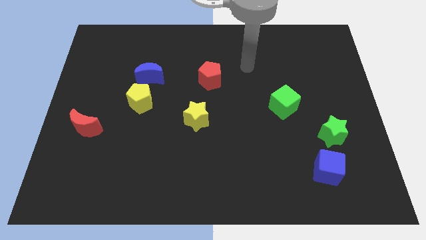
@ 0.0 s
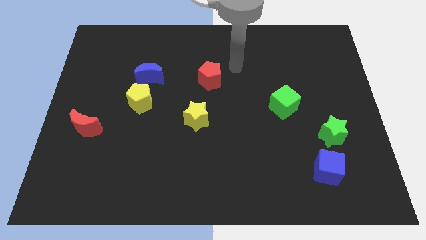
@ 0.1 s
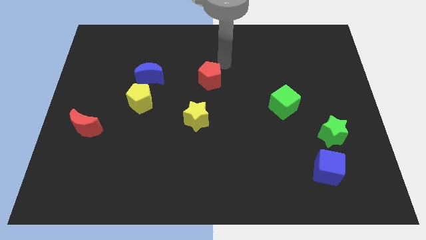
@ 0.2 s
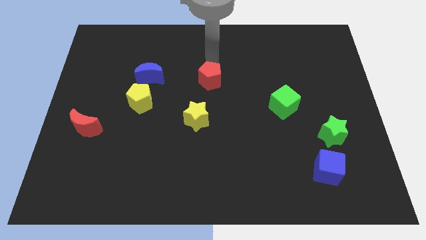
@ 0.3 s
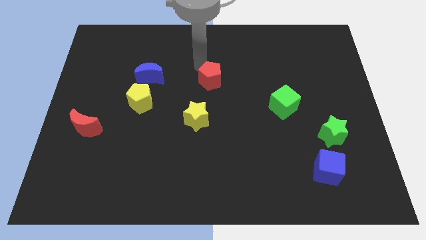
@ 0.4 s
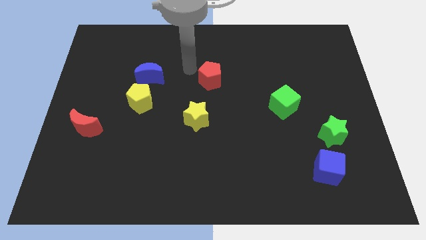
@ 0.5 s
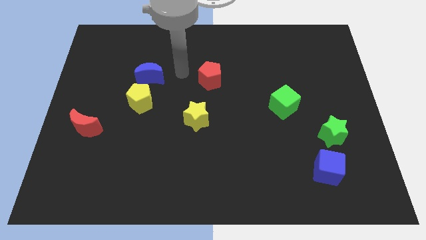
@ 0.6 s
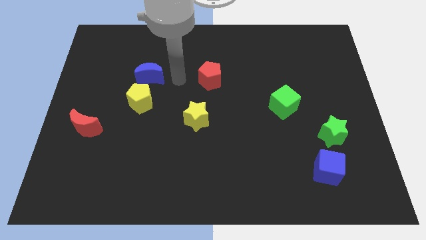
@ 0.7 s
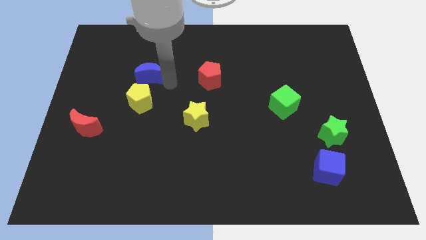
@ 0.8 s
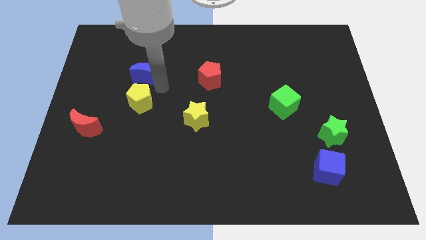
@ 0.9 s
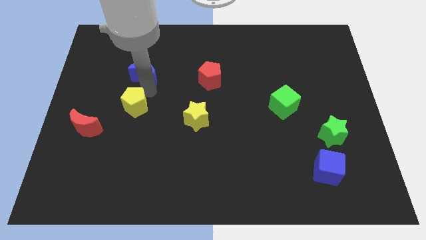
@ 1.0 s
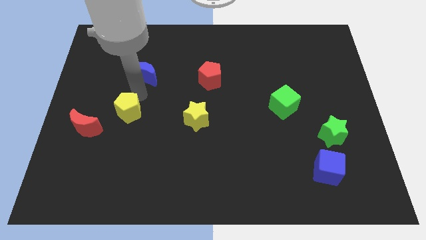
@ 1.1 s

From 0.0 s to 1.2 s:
pull the blue moon apart from the yellow pentagon

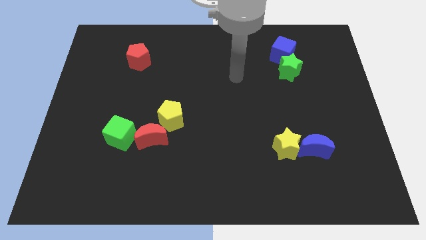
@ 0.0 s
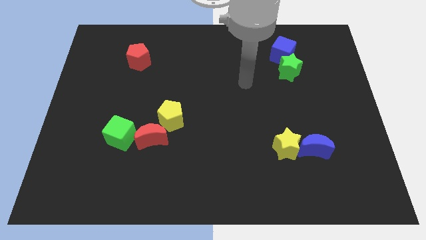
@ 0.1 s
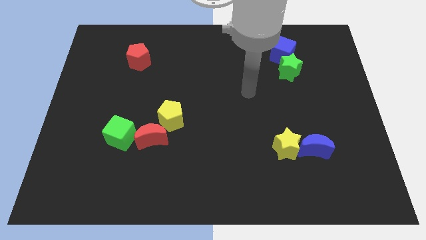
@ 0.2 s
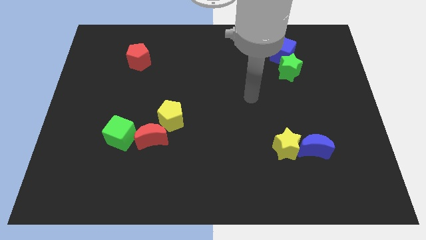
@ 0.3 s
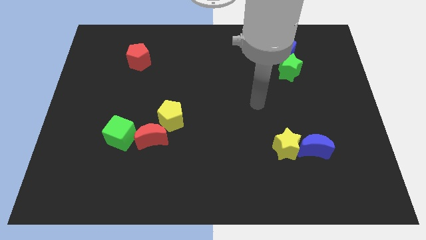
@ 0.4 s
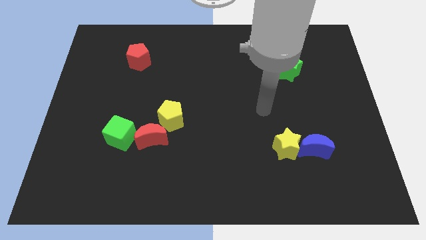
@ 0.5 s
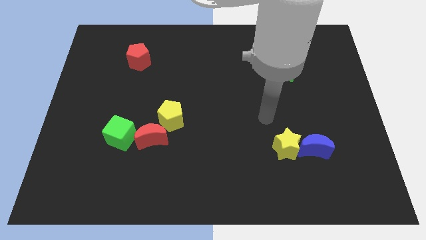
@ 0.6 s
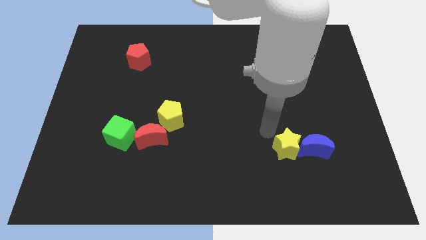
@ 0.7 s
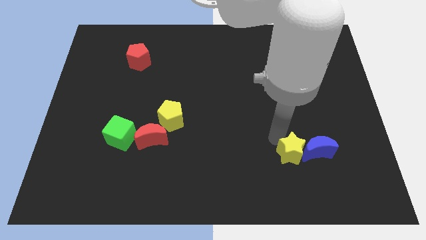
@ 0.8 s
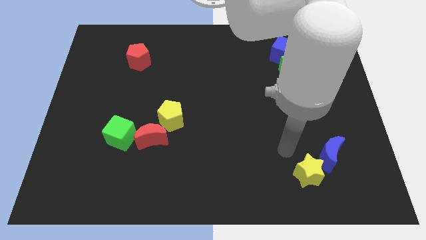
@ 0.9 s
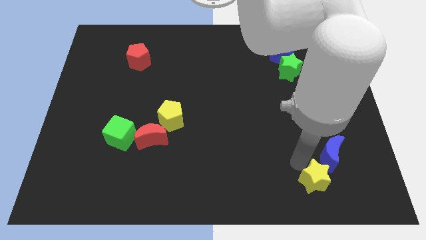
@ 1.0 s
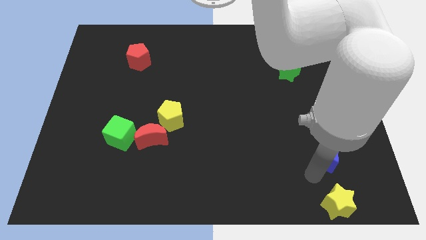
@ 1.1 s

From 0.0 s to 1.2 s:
move the blue moon away from the yellow star

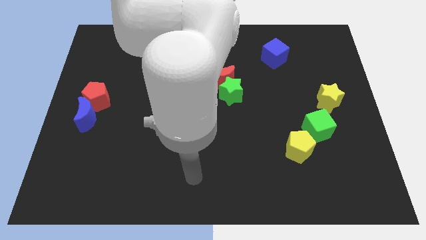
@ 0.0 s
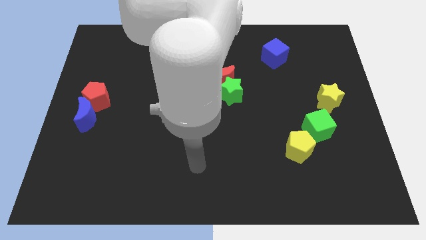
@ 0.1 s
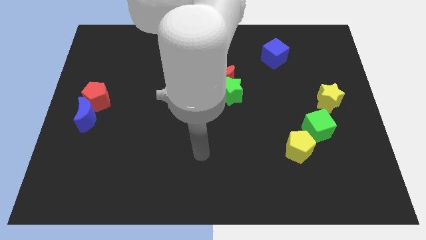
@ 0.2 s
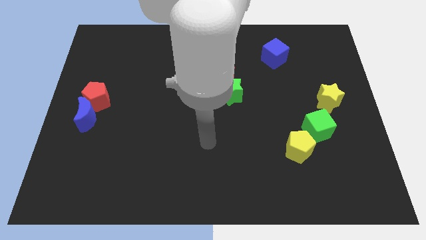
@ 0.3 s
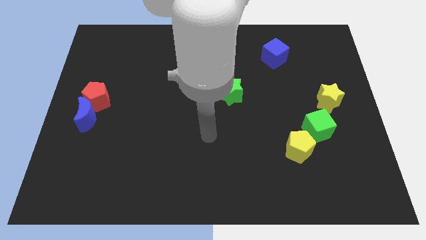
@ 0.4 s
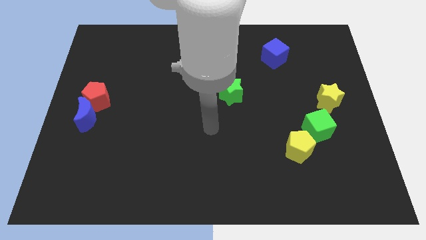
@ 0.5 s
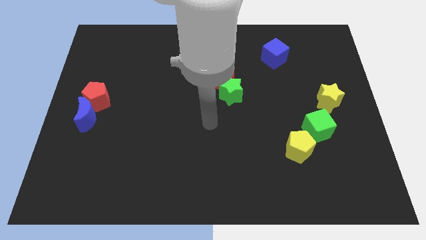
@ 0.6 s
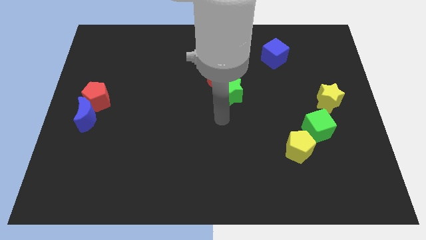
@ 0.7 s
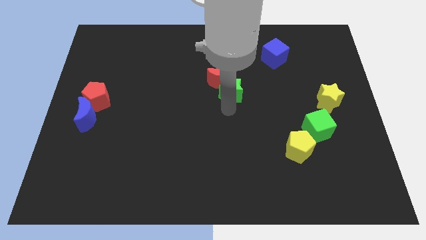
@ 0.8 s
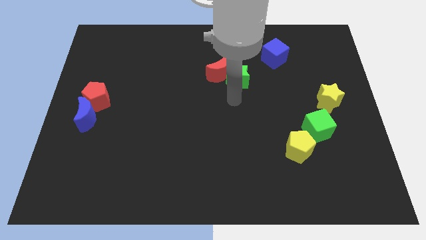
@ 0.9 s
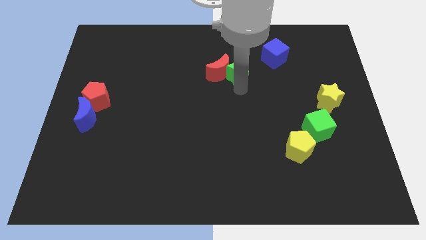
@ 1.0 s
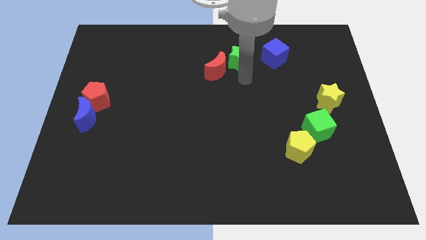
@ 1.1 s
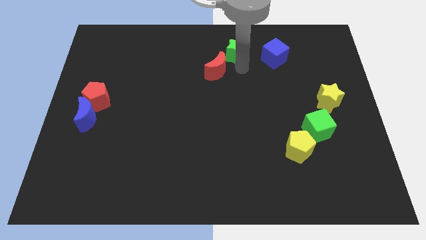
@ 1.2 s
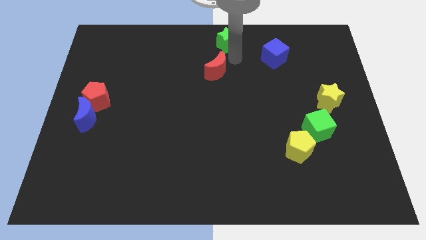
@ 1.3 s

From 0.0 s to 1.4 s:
separate the red moon from the green star

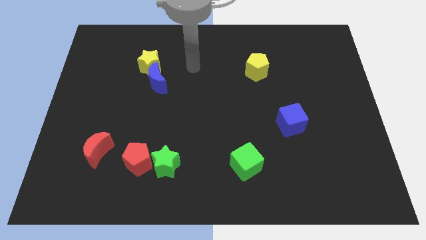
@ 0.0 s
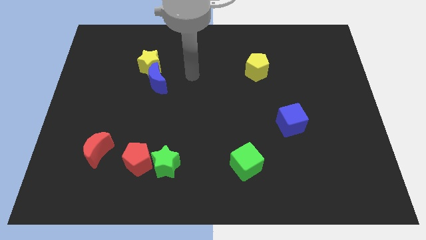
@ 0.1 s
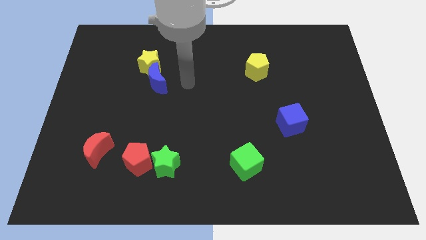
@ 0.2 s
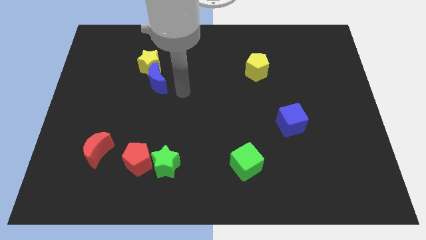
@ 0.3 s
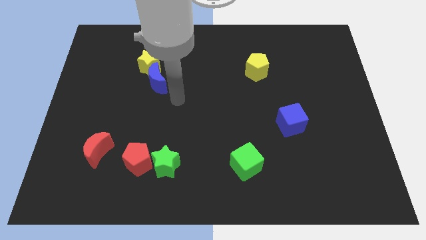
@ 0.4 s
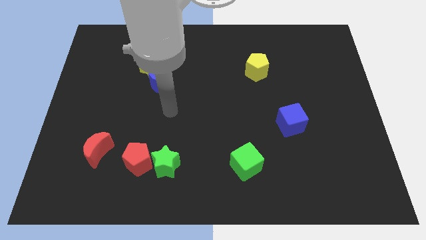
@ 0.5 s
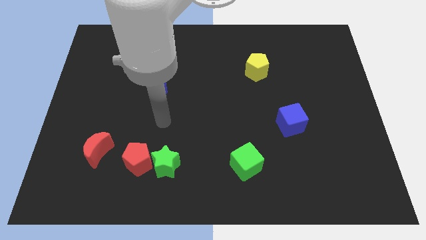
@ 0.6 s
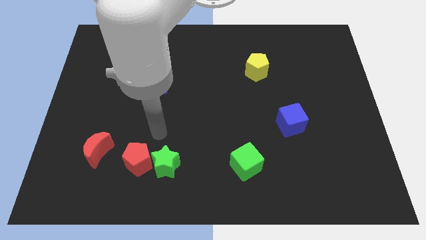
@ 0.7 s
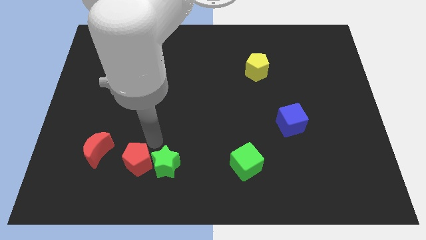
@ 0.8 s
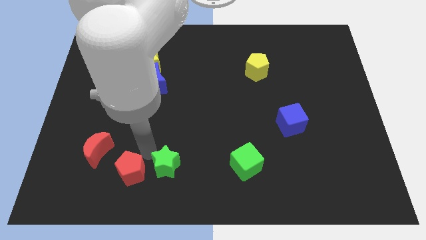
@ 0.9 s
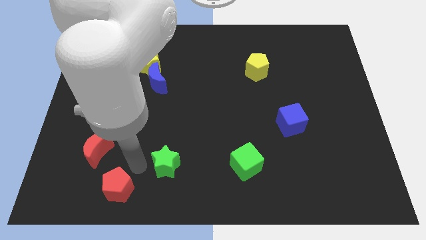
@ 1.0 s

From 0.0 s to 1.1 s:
move the green star away from the red pentagon

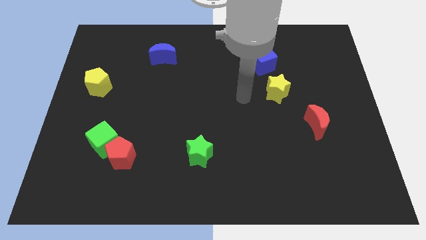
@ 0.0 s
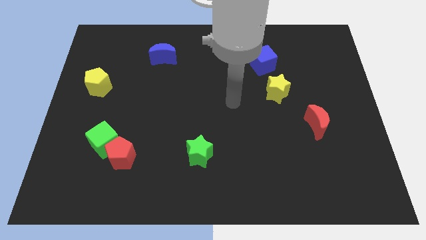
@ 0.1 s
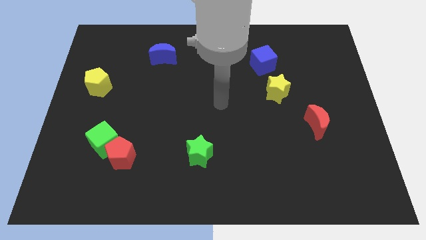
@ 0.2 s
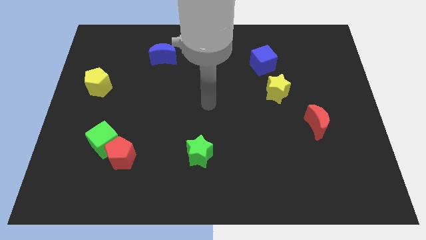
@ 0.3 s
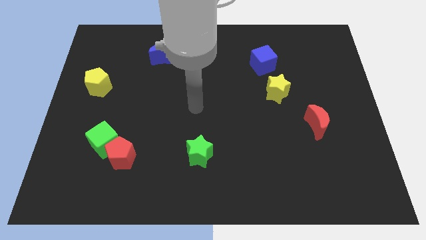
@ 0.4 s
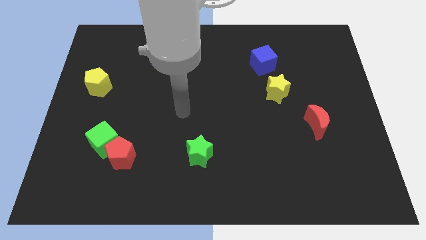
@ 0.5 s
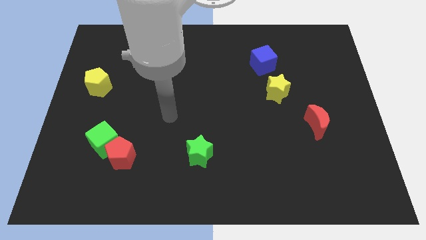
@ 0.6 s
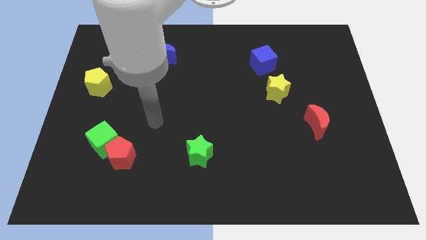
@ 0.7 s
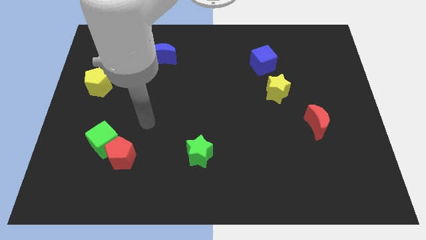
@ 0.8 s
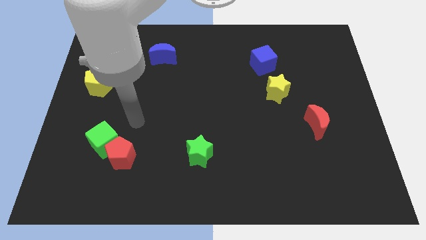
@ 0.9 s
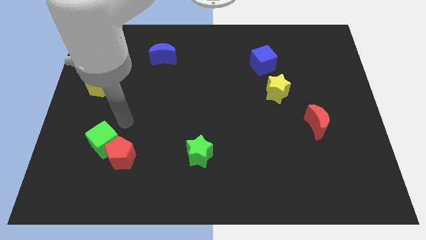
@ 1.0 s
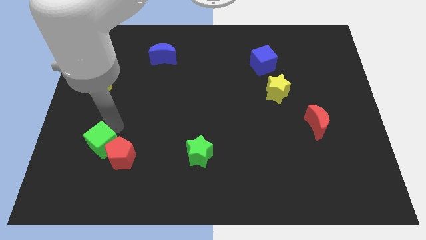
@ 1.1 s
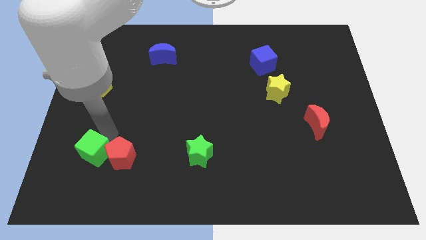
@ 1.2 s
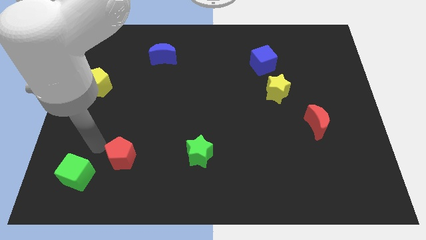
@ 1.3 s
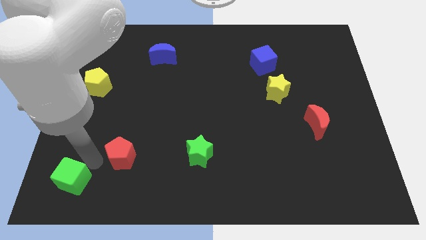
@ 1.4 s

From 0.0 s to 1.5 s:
move the red pentagon away from the green cube

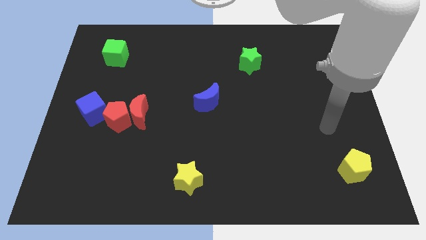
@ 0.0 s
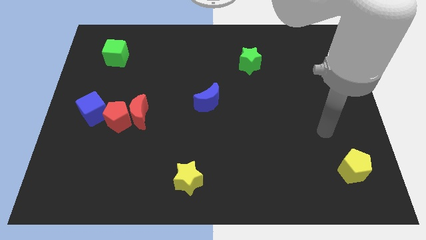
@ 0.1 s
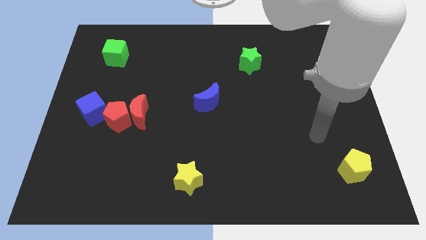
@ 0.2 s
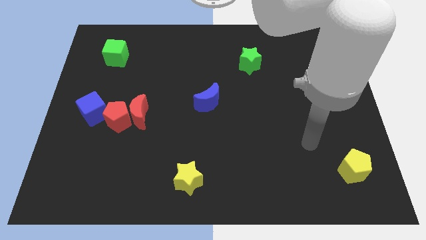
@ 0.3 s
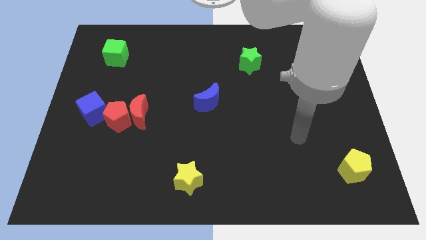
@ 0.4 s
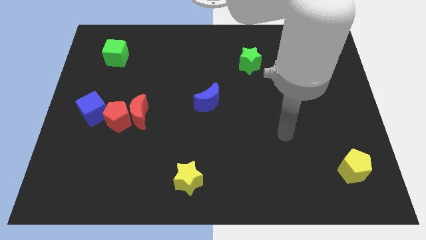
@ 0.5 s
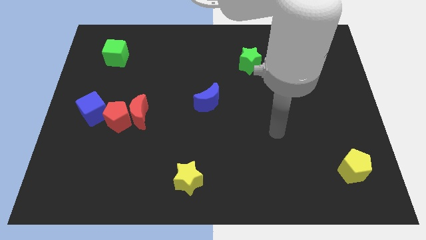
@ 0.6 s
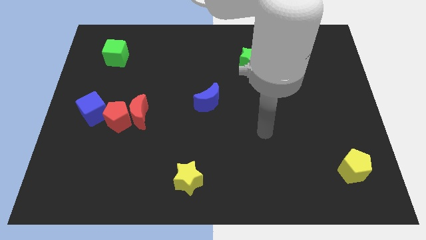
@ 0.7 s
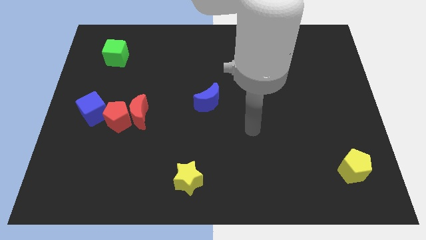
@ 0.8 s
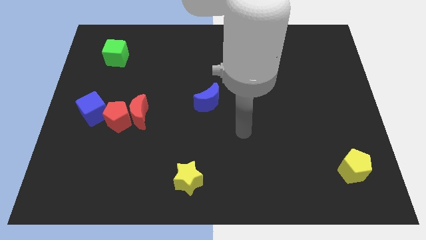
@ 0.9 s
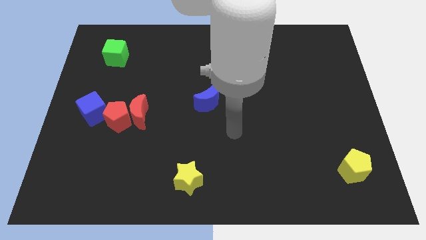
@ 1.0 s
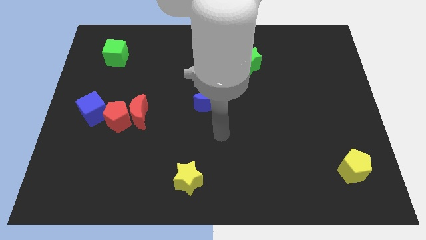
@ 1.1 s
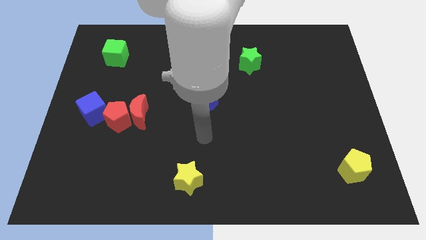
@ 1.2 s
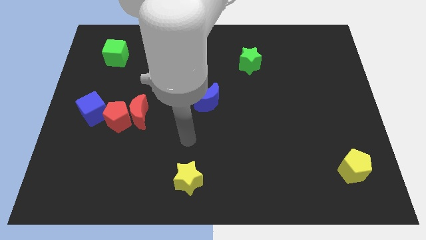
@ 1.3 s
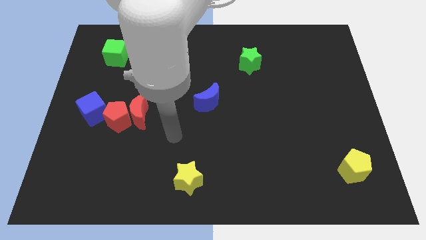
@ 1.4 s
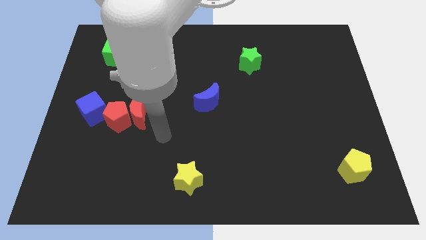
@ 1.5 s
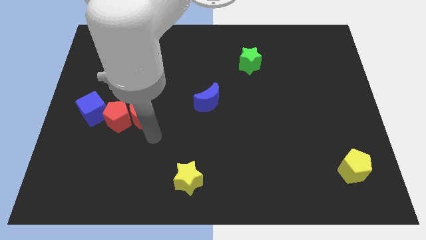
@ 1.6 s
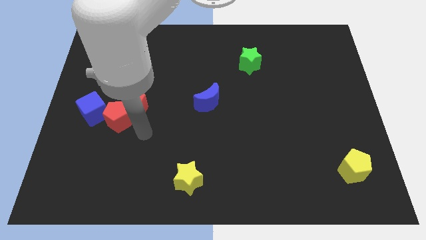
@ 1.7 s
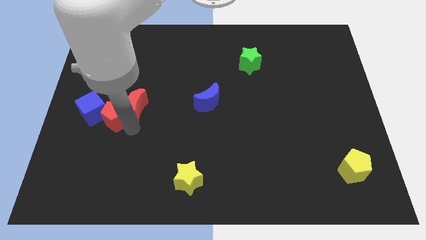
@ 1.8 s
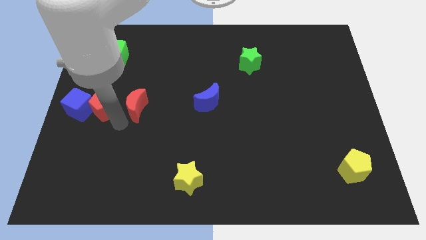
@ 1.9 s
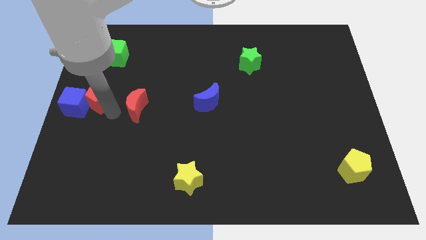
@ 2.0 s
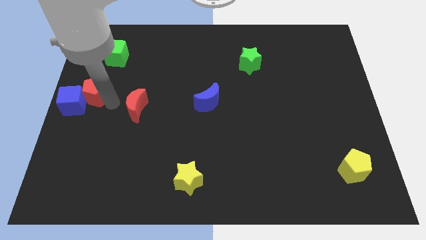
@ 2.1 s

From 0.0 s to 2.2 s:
separate the red moon from the red pentagon

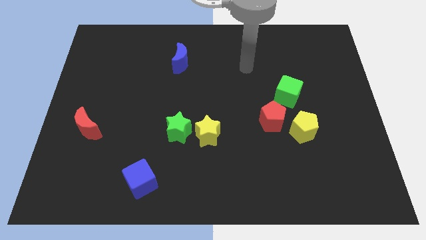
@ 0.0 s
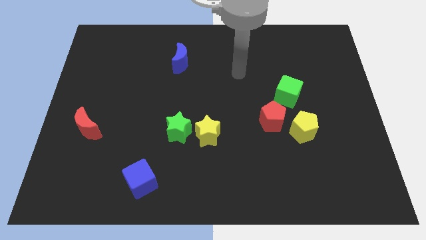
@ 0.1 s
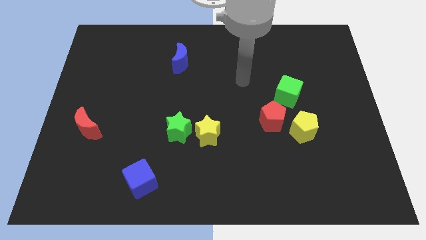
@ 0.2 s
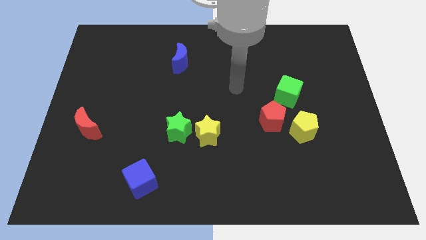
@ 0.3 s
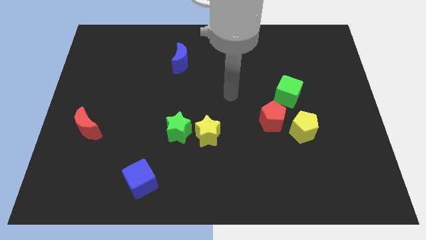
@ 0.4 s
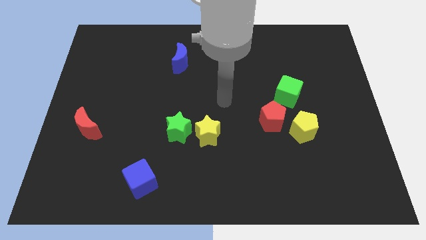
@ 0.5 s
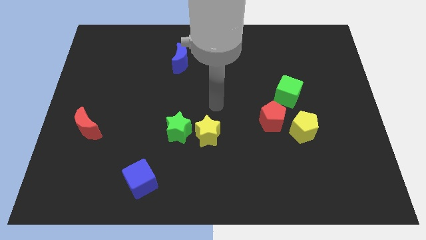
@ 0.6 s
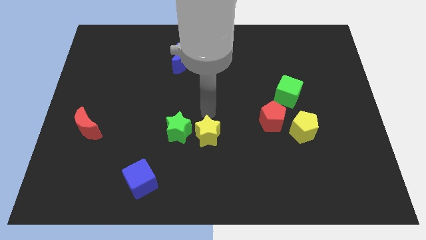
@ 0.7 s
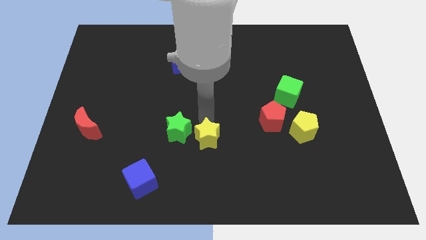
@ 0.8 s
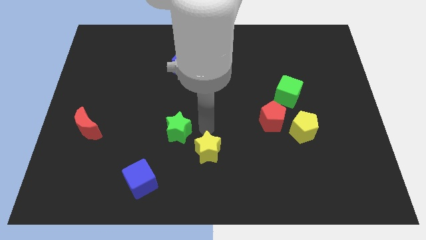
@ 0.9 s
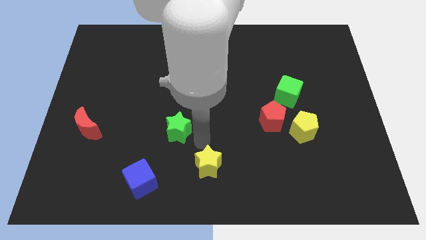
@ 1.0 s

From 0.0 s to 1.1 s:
move the green star away from the yellow star
